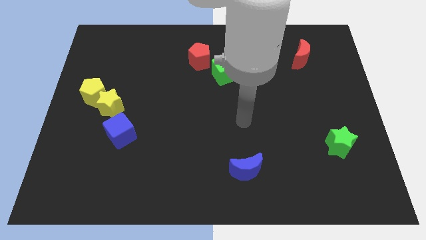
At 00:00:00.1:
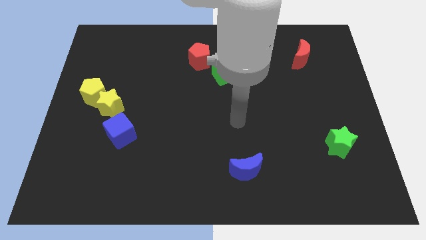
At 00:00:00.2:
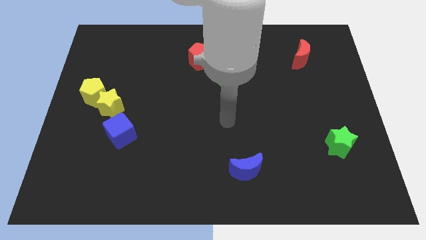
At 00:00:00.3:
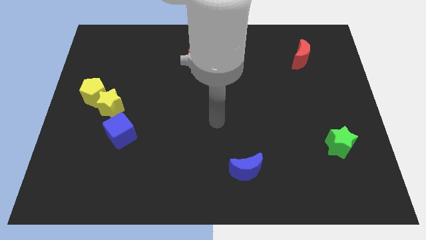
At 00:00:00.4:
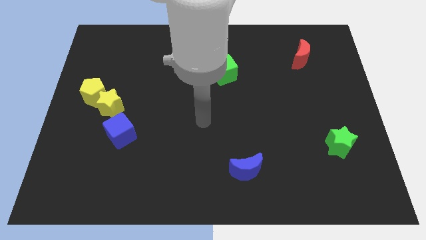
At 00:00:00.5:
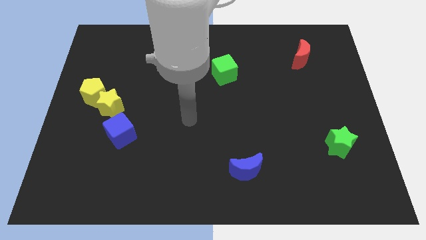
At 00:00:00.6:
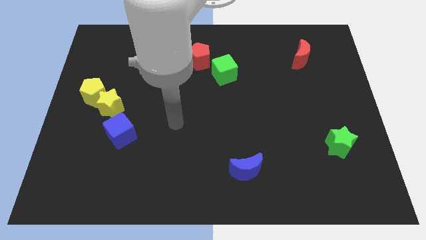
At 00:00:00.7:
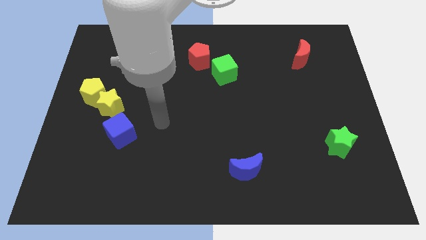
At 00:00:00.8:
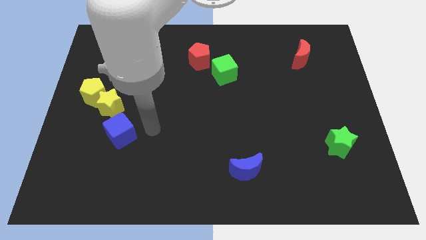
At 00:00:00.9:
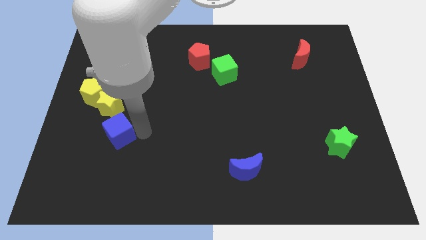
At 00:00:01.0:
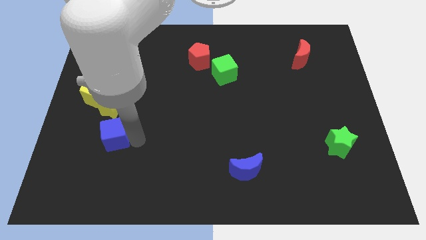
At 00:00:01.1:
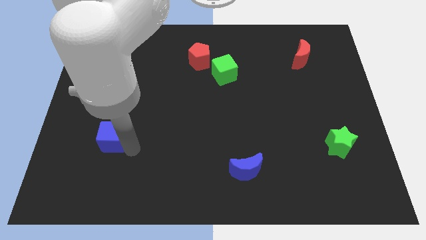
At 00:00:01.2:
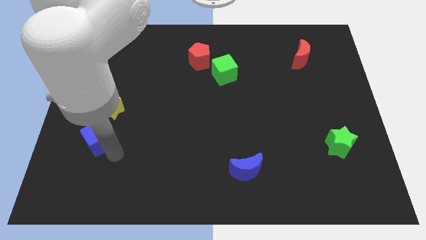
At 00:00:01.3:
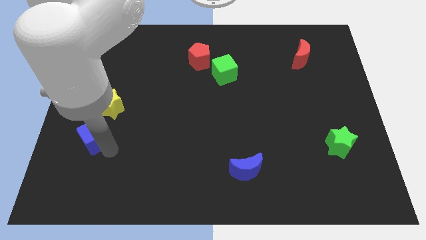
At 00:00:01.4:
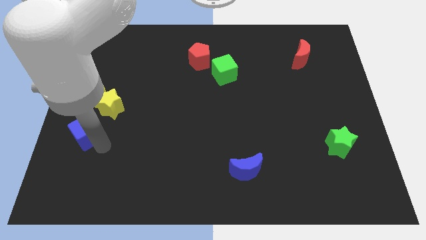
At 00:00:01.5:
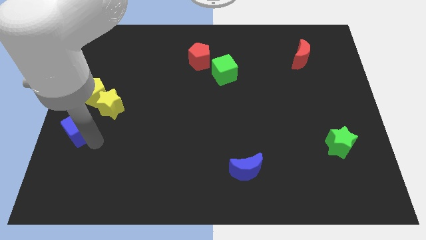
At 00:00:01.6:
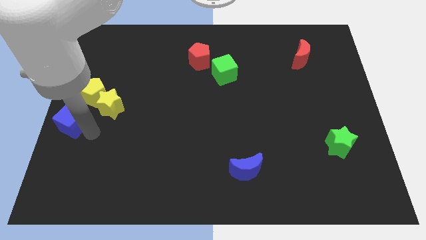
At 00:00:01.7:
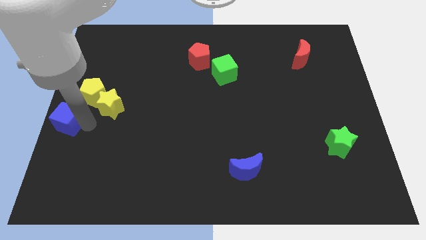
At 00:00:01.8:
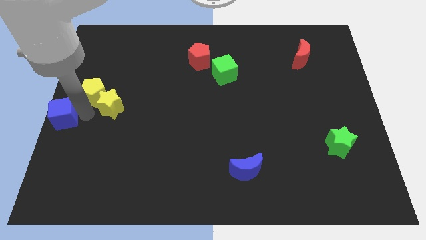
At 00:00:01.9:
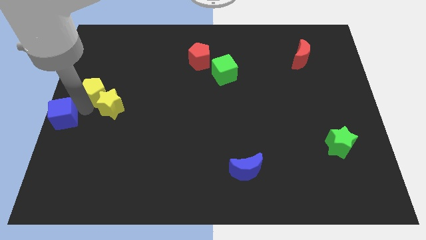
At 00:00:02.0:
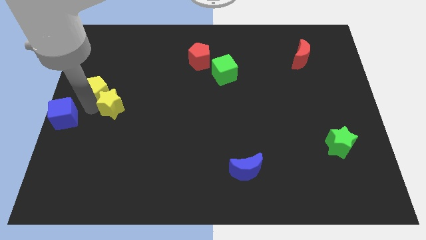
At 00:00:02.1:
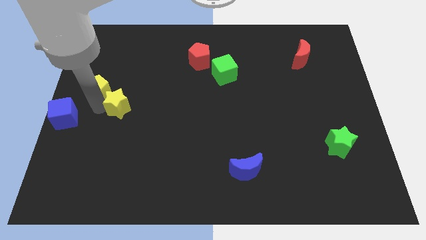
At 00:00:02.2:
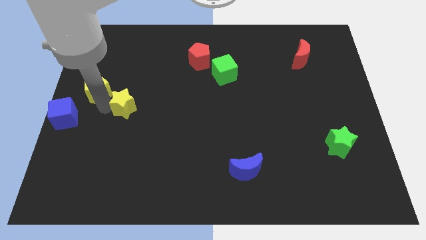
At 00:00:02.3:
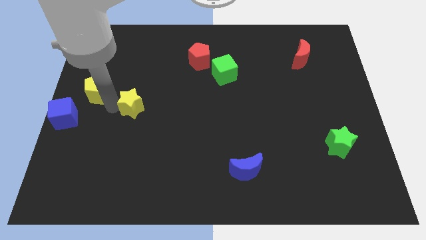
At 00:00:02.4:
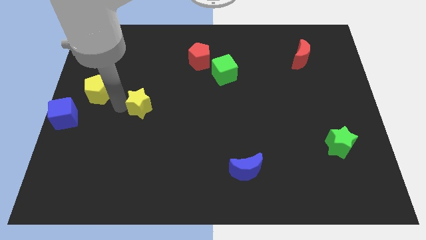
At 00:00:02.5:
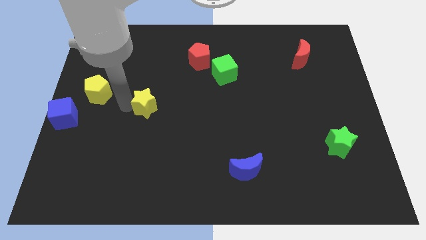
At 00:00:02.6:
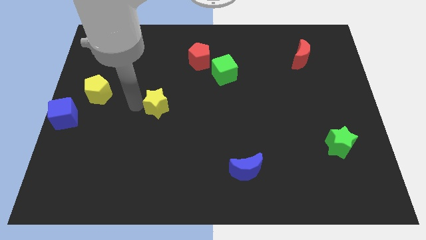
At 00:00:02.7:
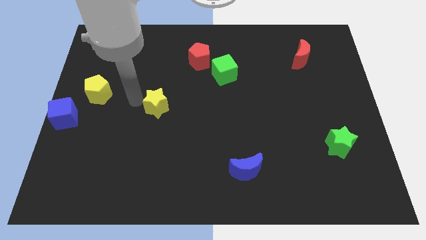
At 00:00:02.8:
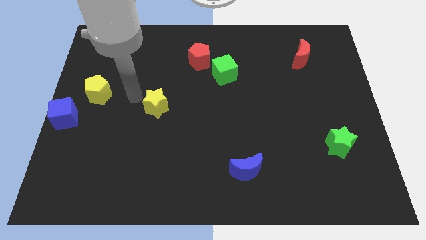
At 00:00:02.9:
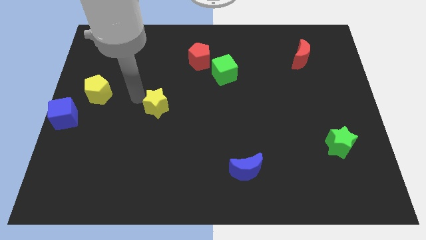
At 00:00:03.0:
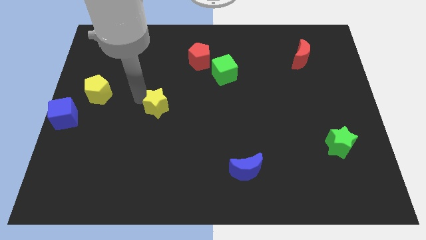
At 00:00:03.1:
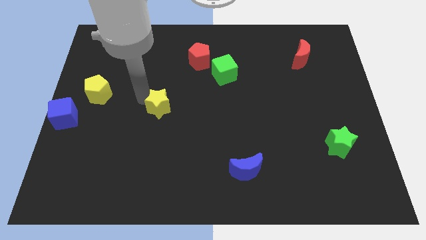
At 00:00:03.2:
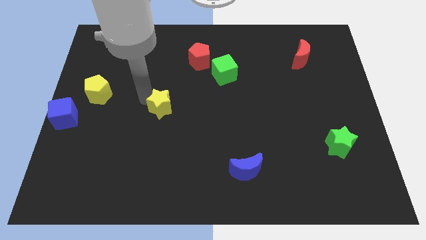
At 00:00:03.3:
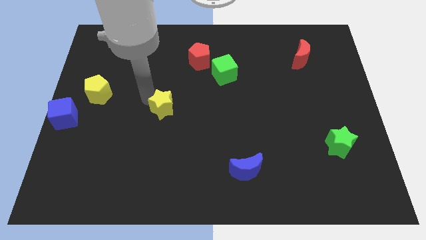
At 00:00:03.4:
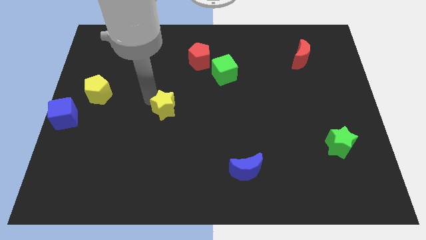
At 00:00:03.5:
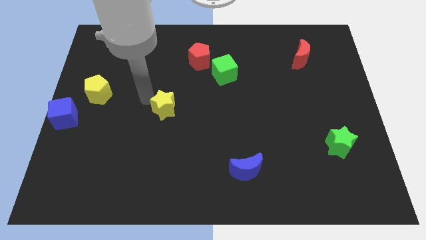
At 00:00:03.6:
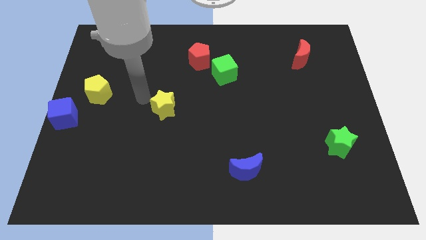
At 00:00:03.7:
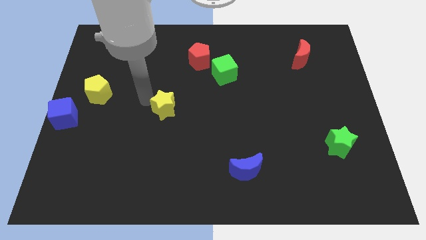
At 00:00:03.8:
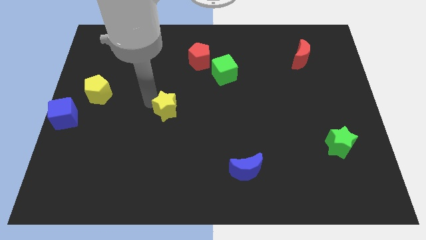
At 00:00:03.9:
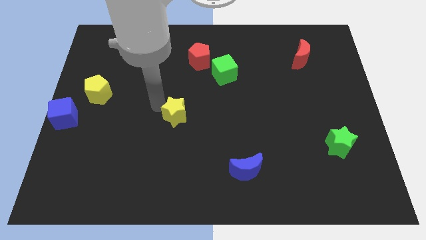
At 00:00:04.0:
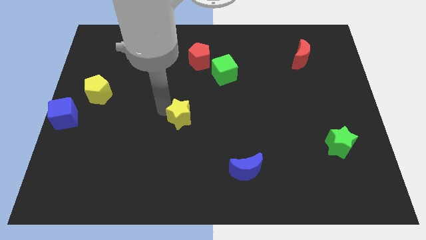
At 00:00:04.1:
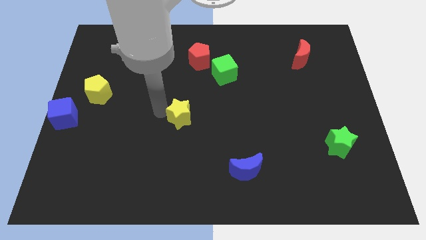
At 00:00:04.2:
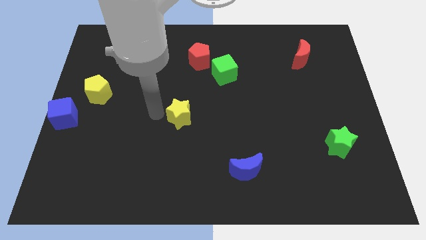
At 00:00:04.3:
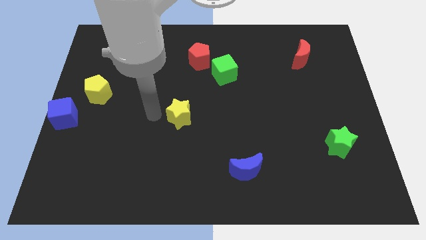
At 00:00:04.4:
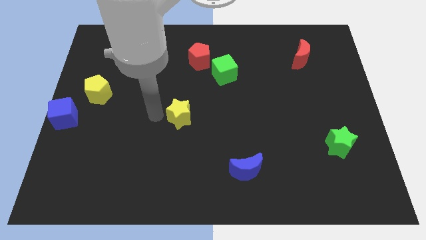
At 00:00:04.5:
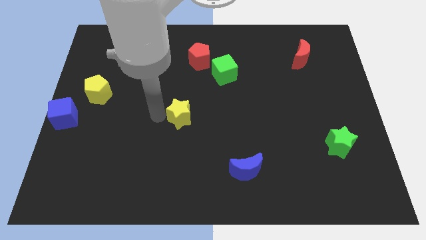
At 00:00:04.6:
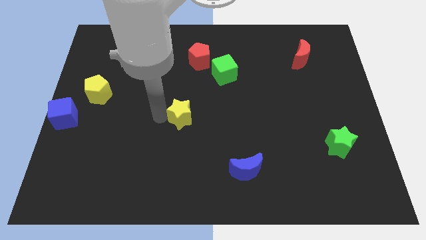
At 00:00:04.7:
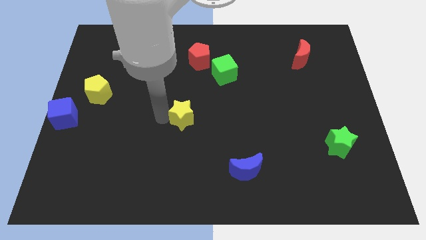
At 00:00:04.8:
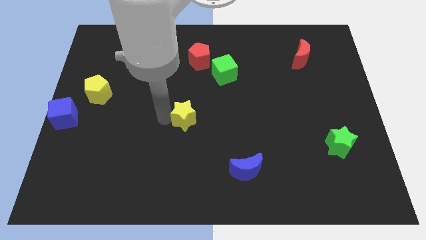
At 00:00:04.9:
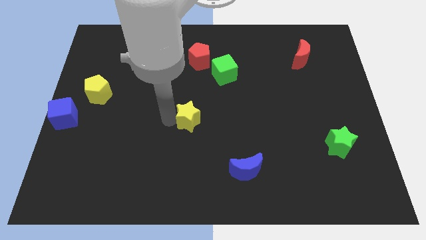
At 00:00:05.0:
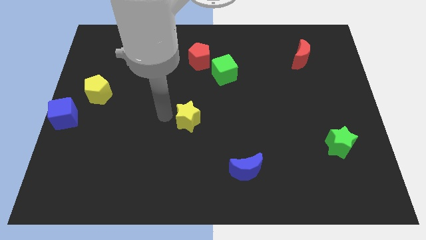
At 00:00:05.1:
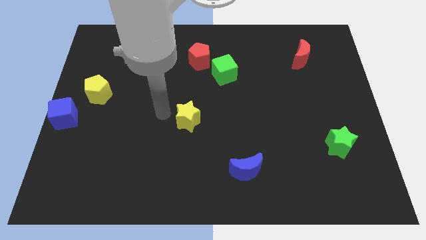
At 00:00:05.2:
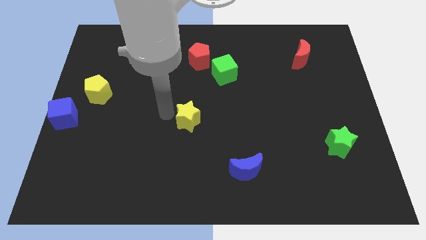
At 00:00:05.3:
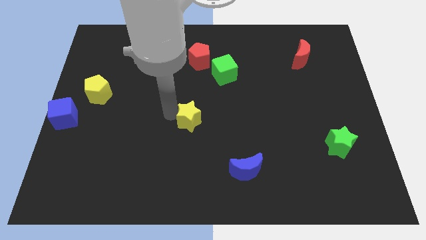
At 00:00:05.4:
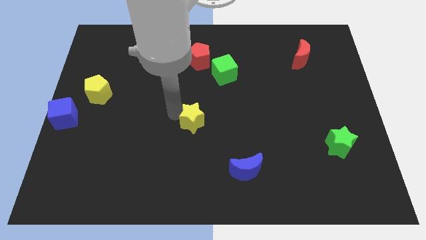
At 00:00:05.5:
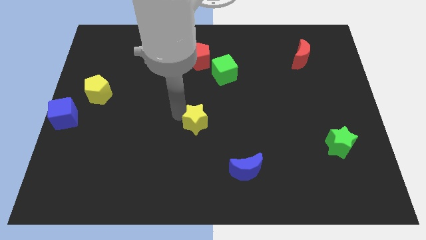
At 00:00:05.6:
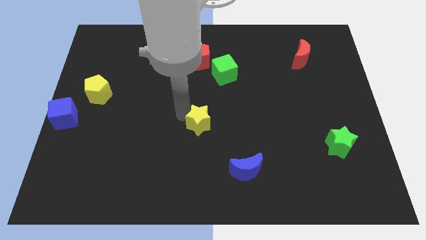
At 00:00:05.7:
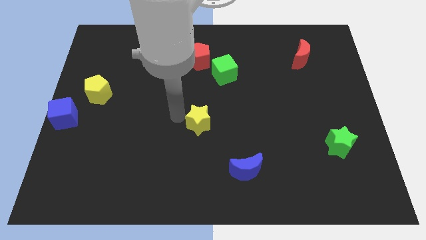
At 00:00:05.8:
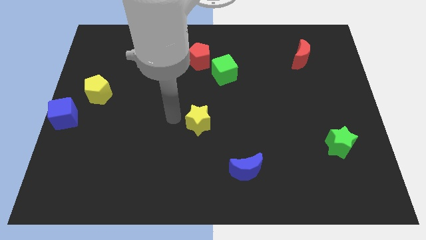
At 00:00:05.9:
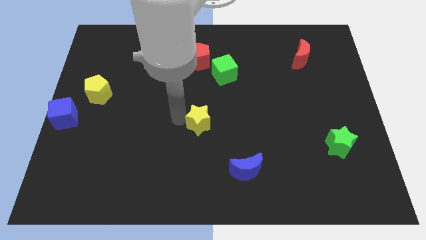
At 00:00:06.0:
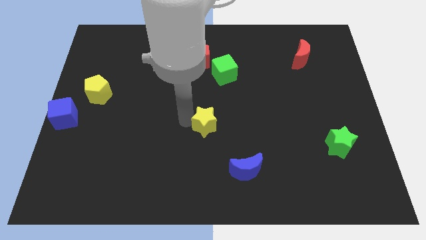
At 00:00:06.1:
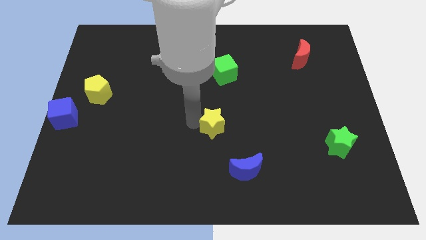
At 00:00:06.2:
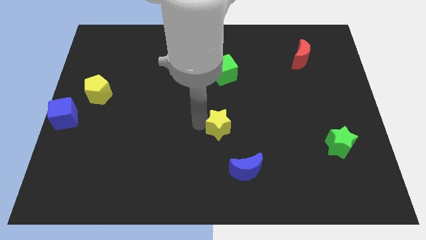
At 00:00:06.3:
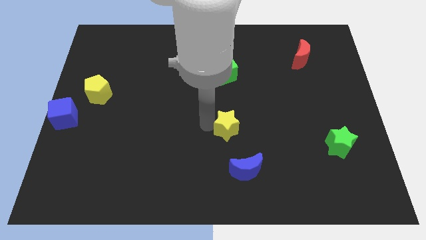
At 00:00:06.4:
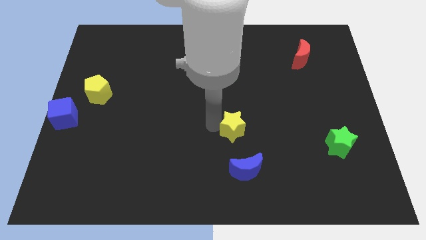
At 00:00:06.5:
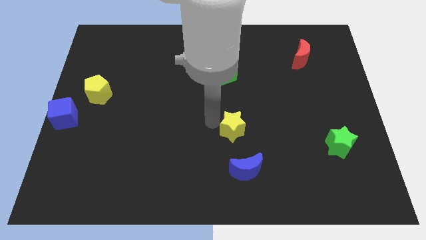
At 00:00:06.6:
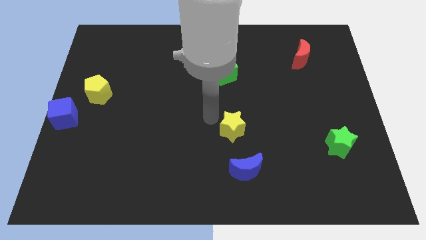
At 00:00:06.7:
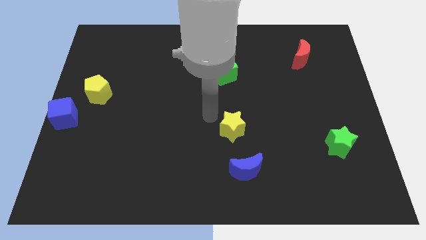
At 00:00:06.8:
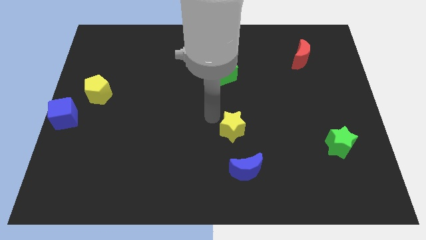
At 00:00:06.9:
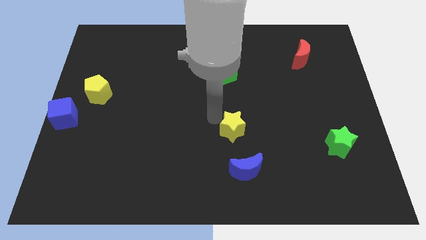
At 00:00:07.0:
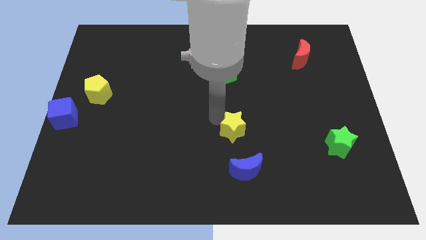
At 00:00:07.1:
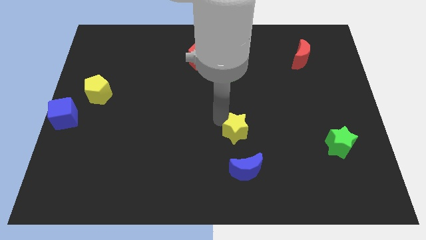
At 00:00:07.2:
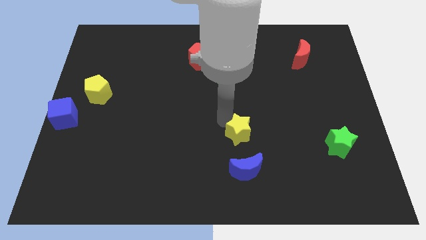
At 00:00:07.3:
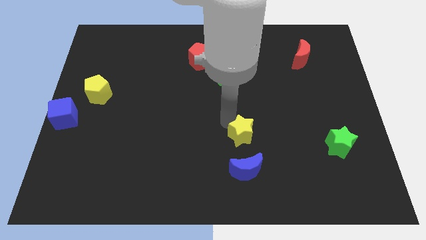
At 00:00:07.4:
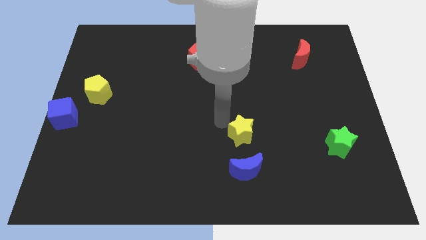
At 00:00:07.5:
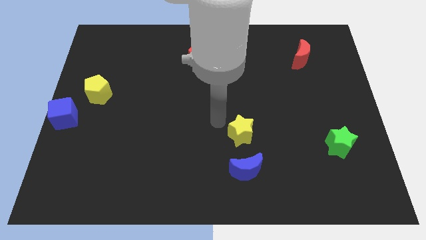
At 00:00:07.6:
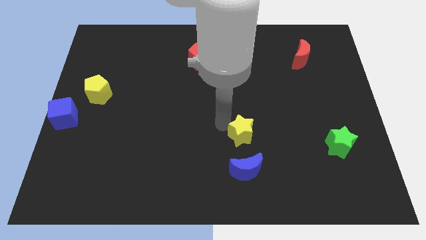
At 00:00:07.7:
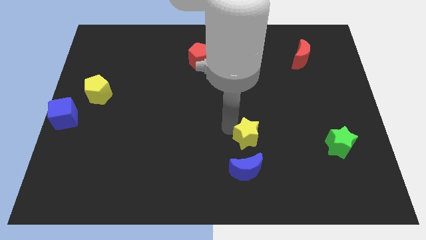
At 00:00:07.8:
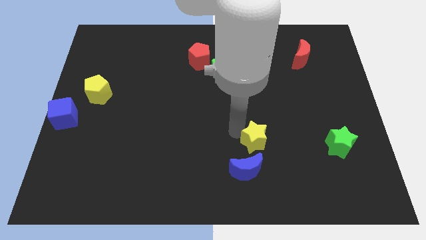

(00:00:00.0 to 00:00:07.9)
move the yellow star diagonally up and to the right of the blue moon
